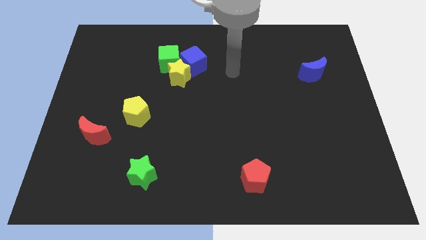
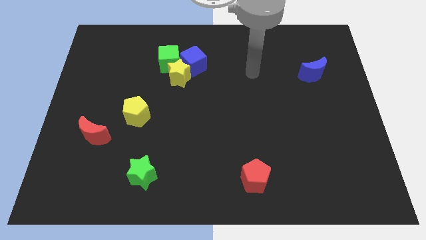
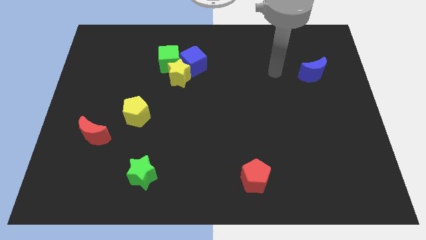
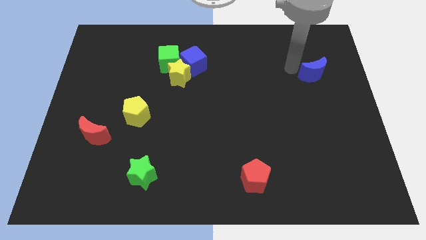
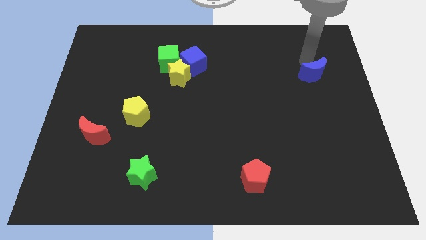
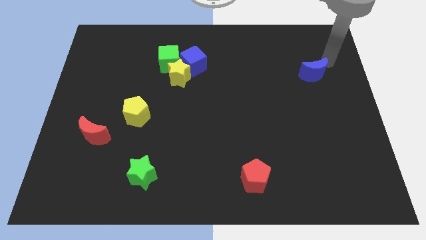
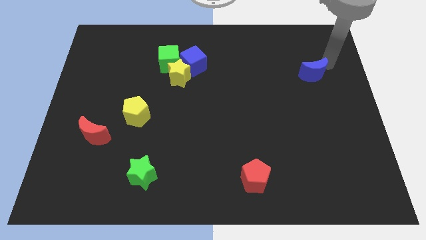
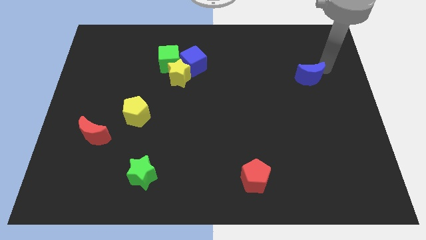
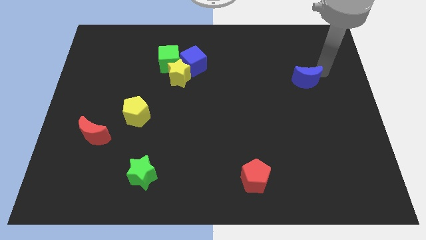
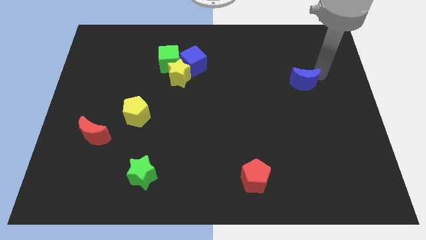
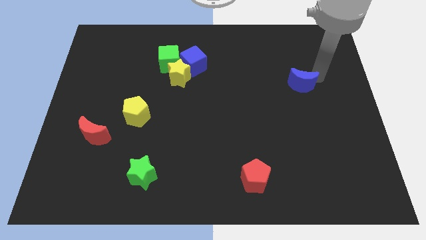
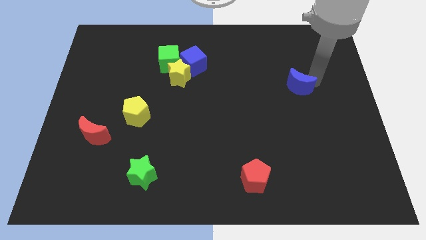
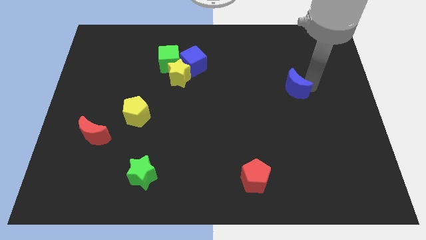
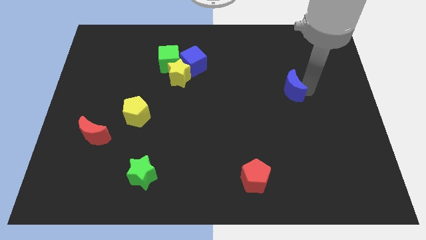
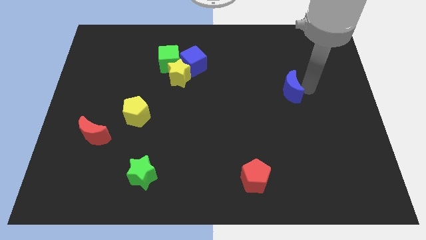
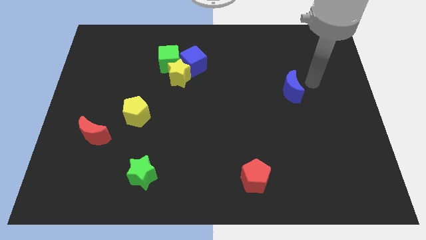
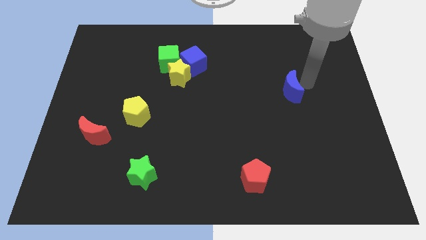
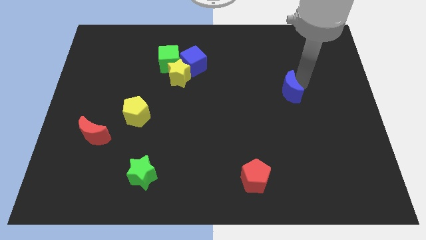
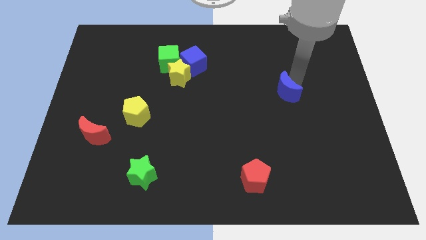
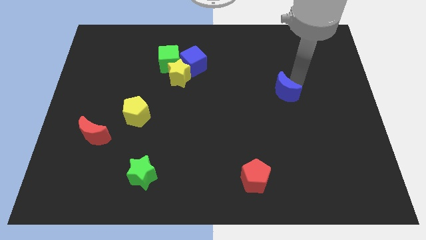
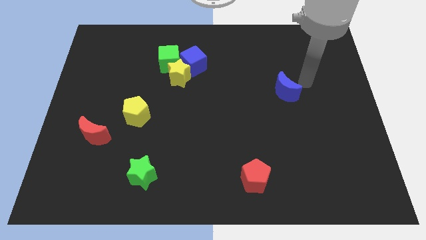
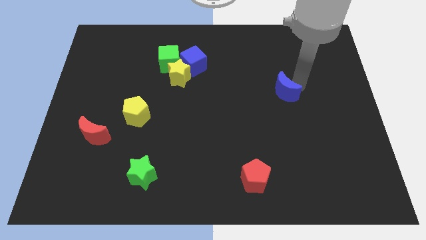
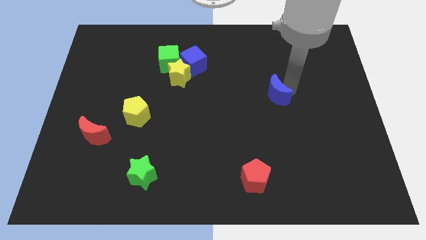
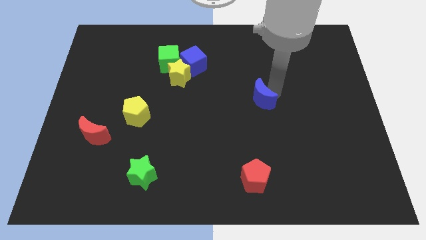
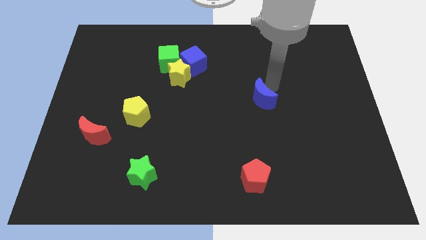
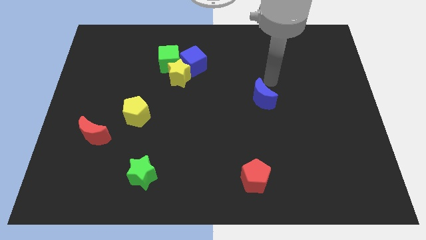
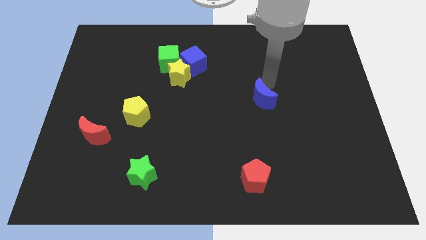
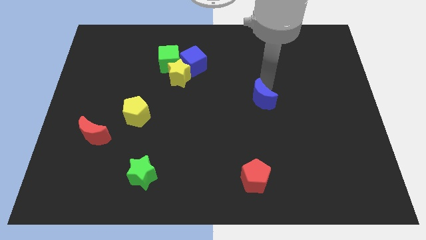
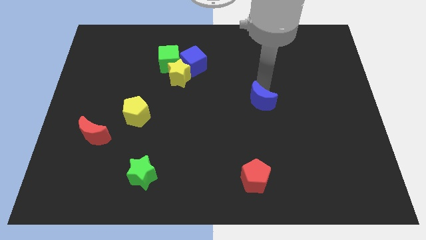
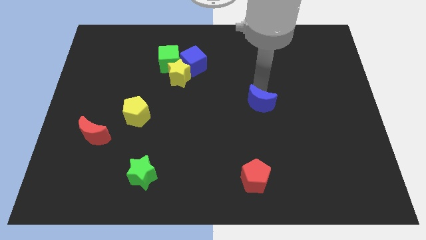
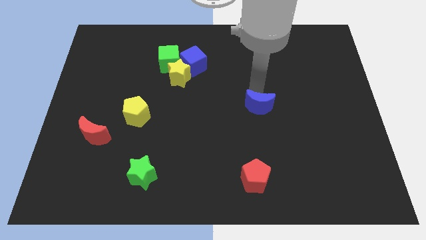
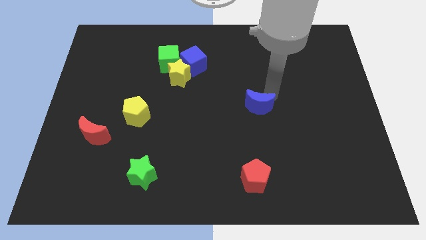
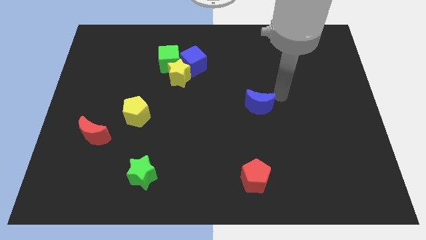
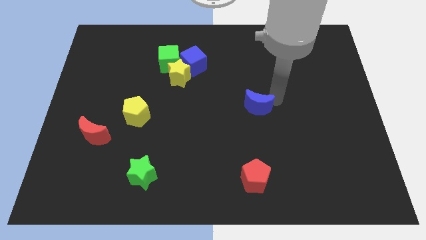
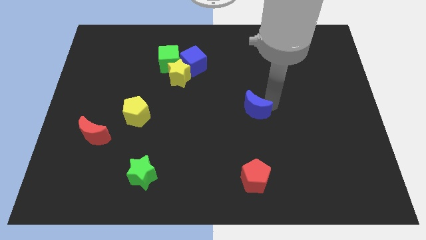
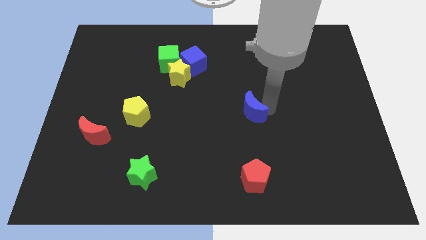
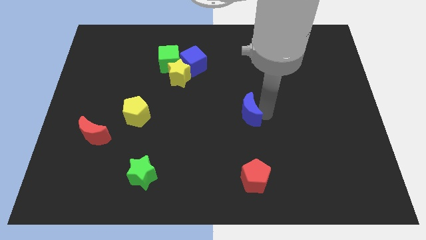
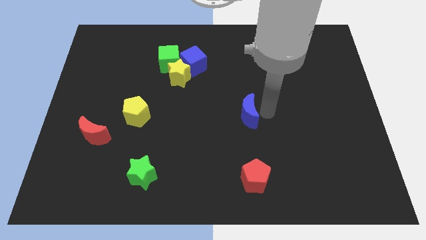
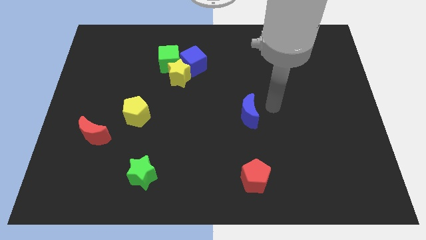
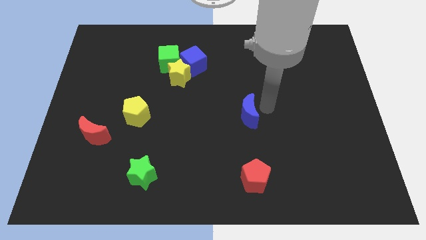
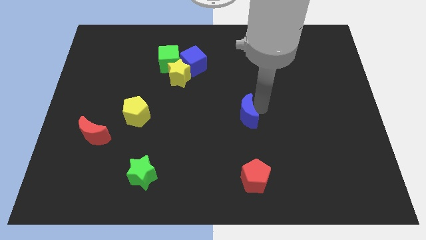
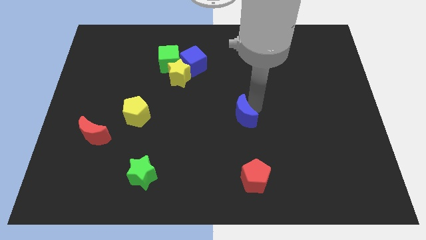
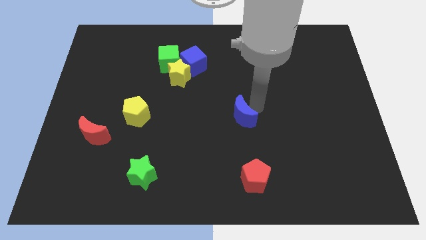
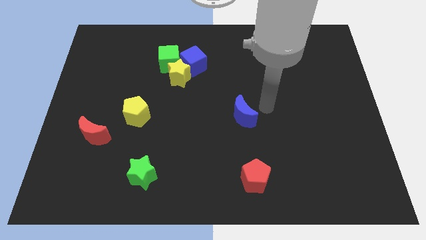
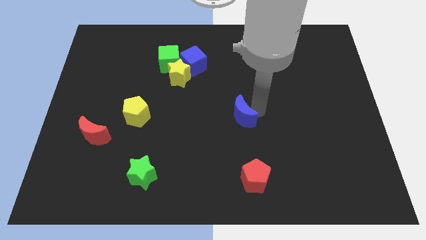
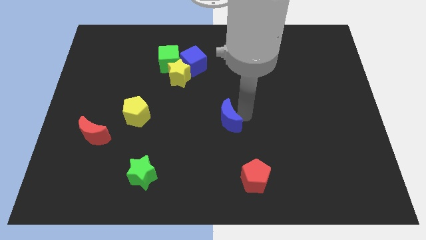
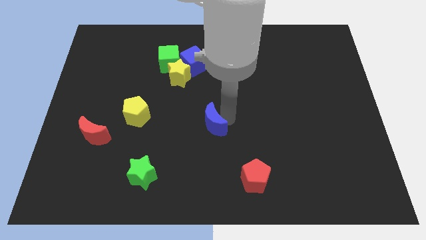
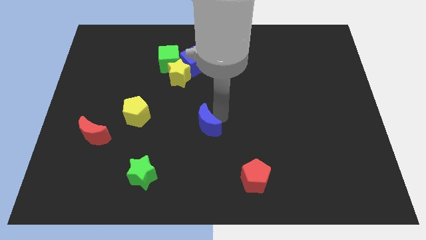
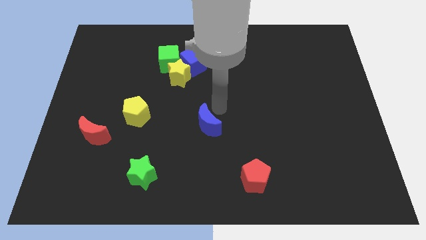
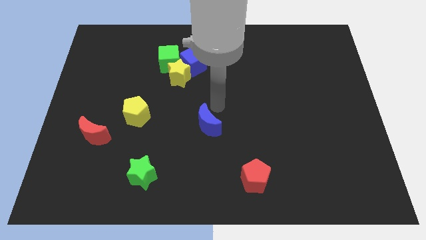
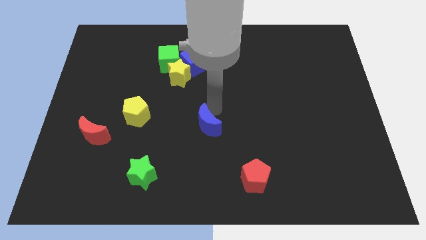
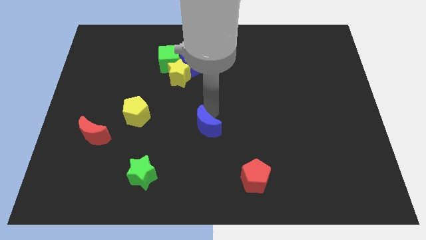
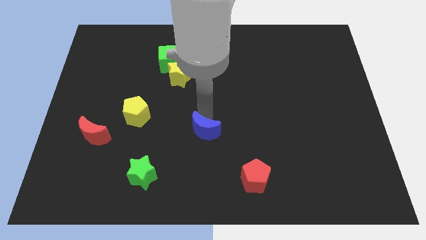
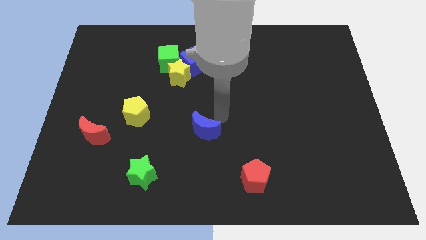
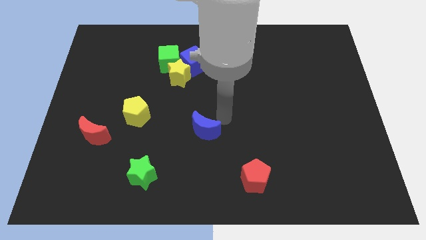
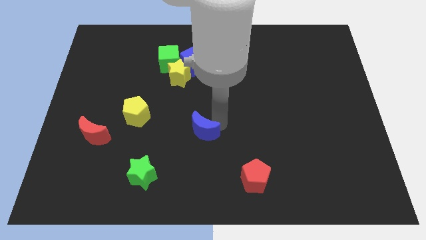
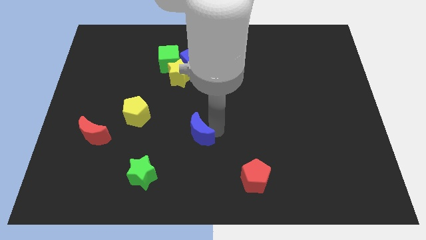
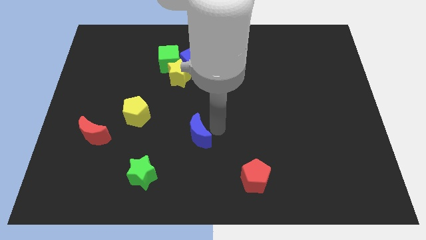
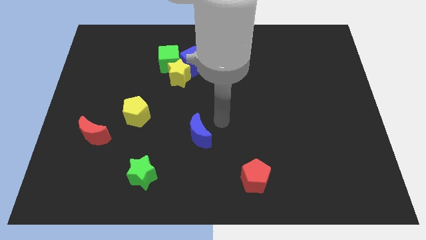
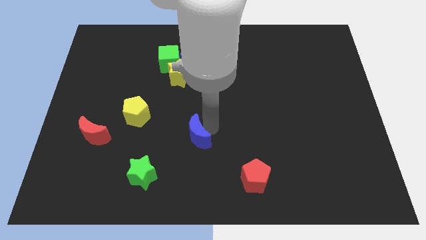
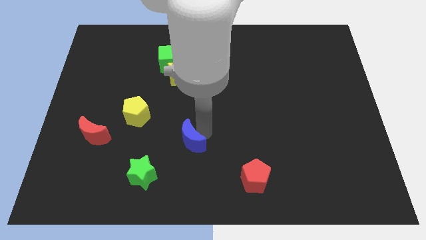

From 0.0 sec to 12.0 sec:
slide the blue moon to the top right of the green star

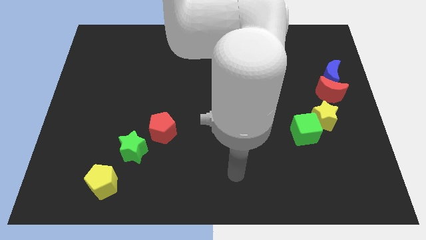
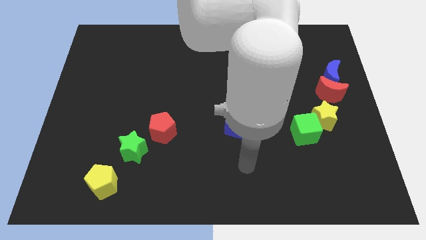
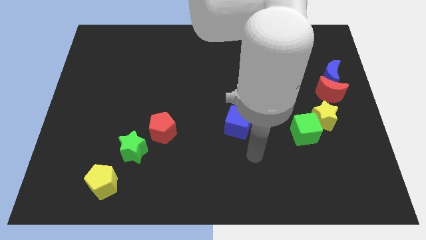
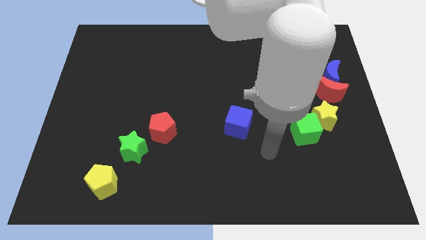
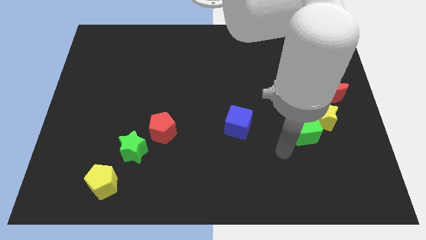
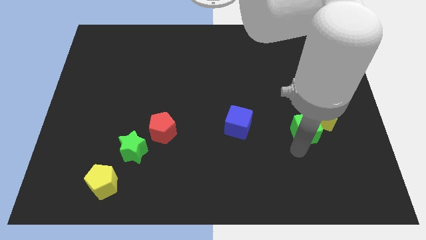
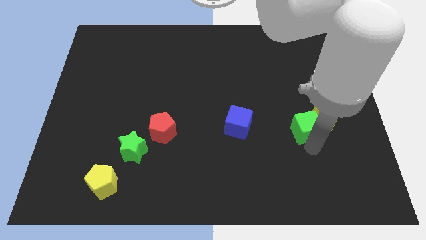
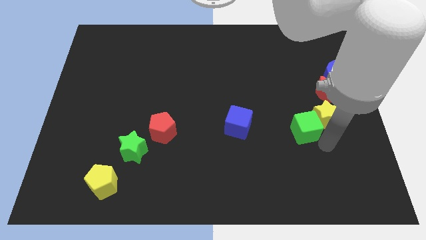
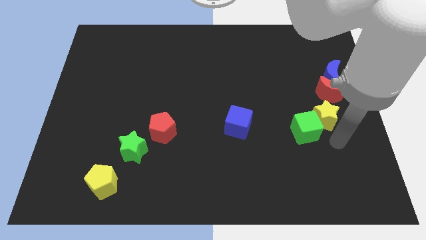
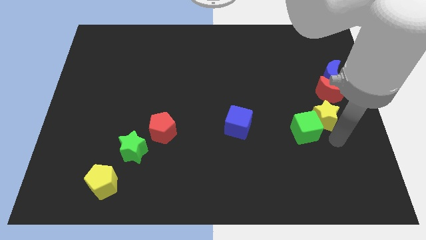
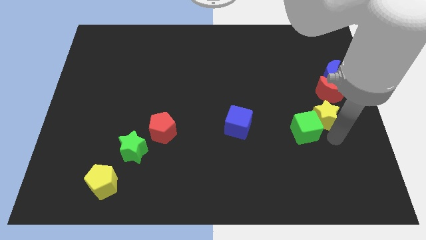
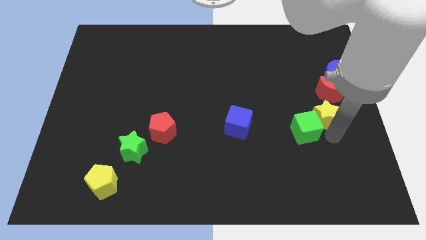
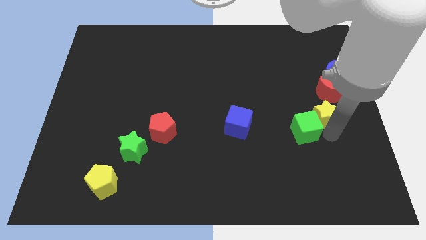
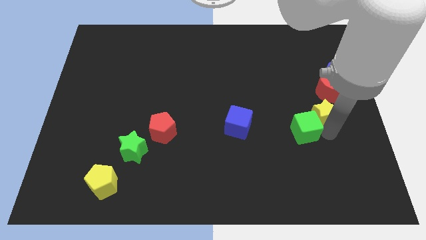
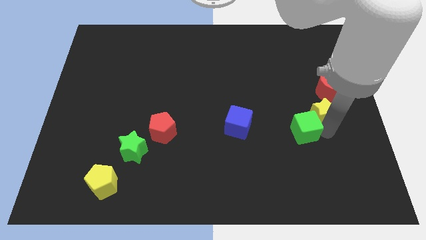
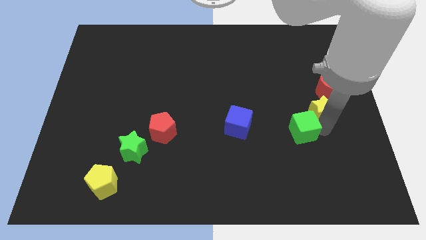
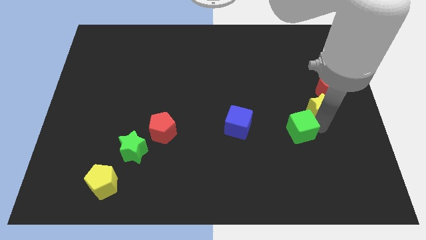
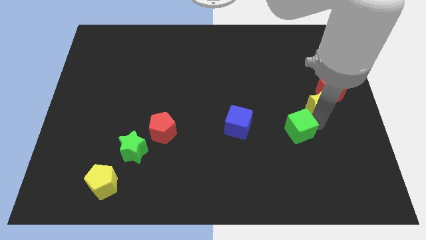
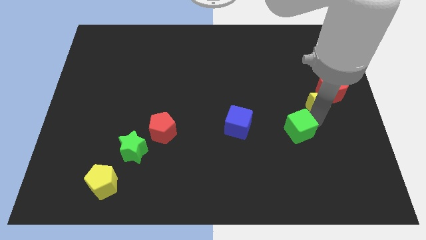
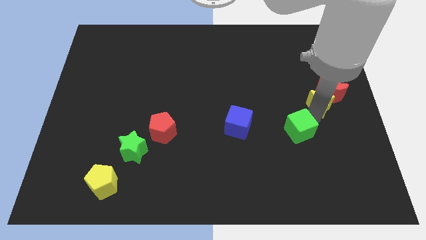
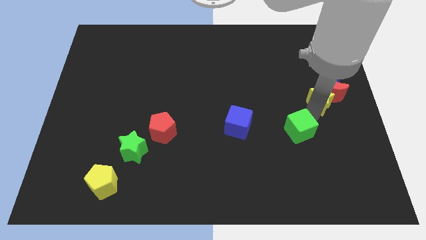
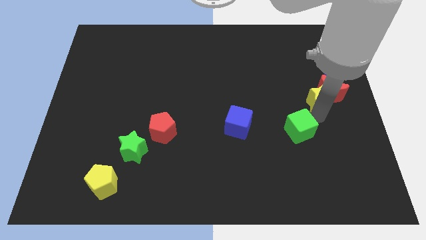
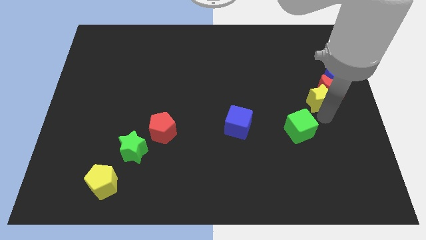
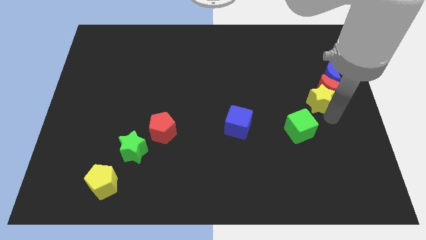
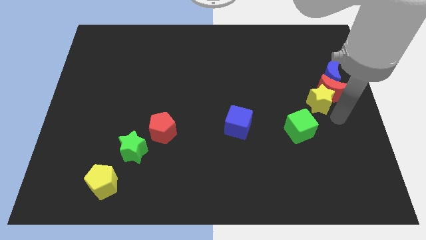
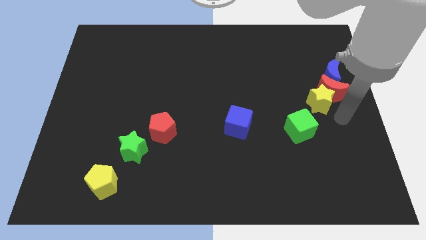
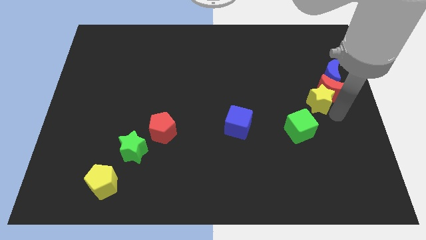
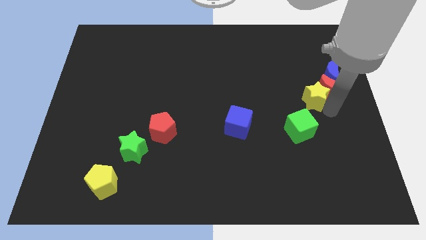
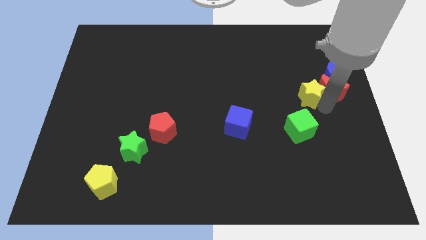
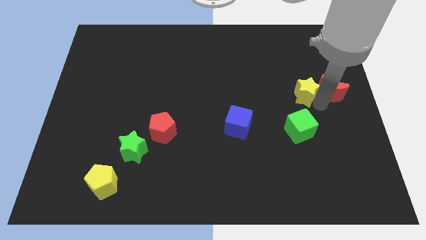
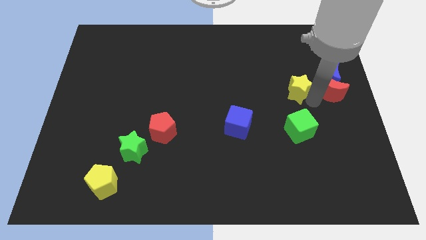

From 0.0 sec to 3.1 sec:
slide the yellow star left of the blue moon
